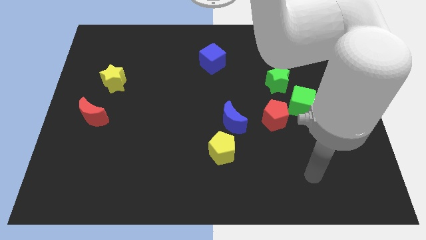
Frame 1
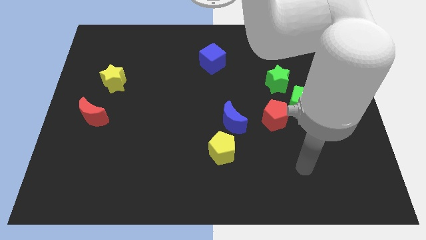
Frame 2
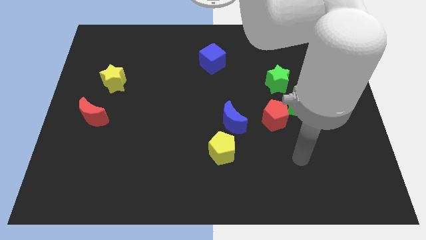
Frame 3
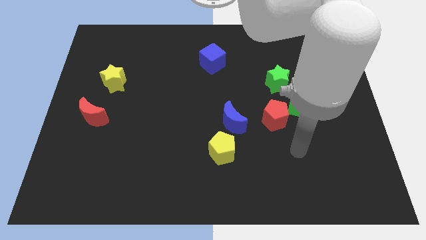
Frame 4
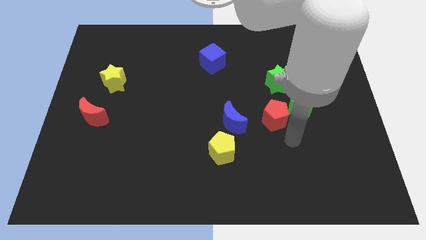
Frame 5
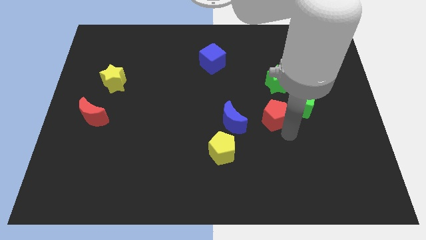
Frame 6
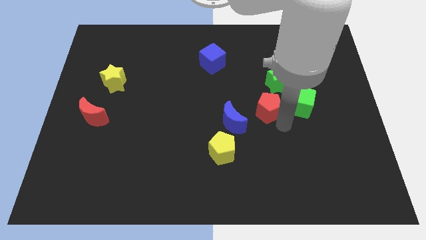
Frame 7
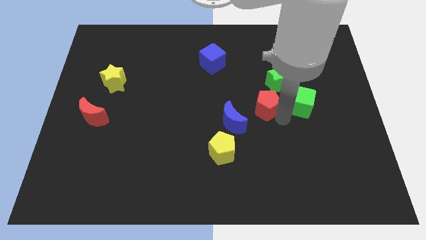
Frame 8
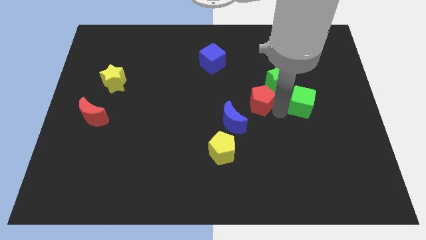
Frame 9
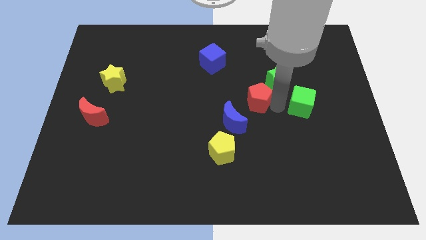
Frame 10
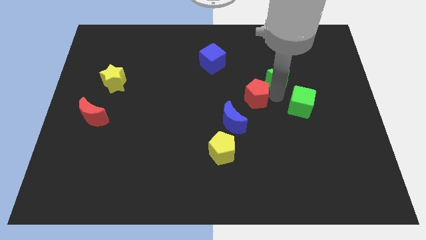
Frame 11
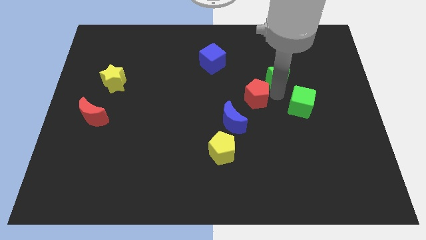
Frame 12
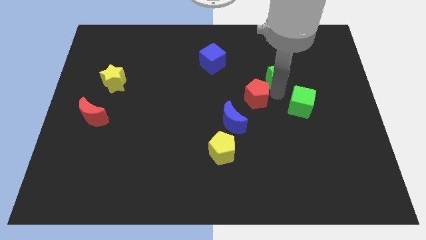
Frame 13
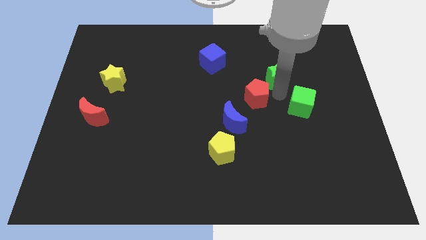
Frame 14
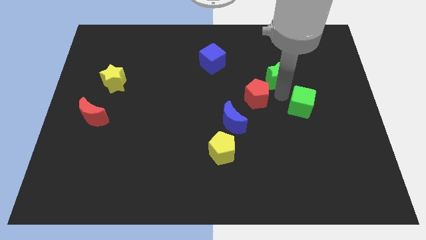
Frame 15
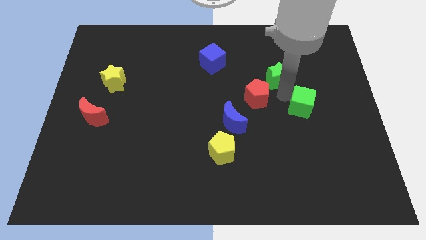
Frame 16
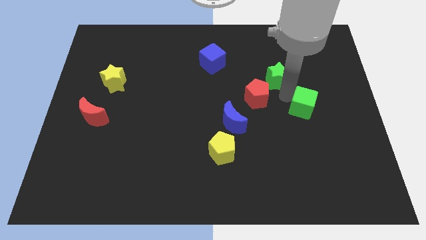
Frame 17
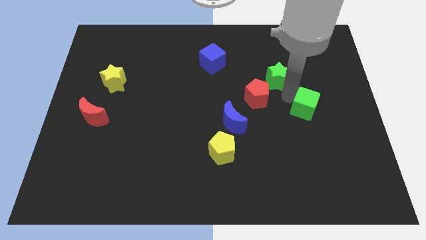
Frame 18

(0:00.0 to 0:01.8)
move the green cube away from the red pentagon and green star

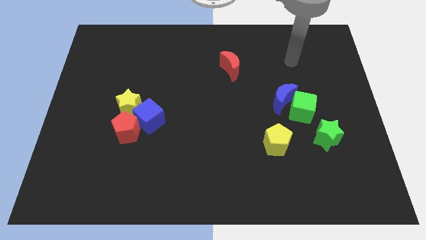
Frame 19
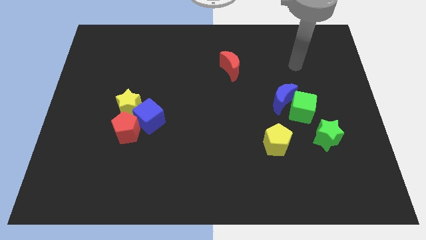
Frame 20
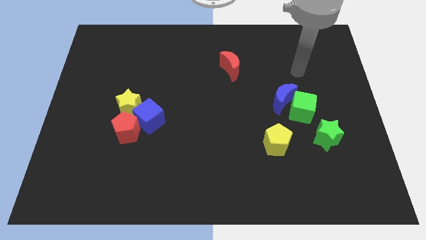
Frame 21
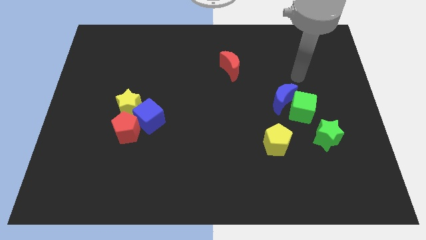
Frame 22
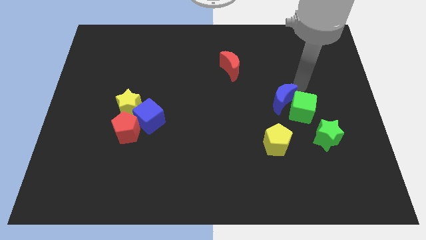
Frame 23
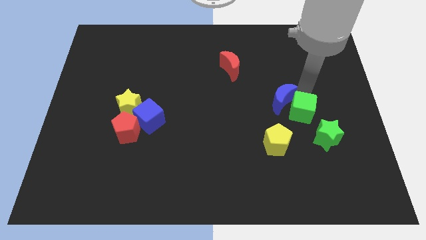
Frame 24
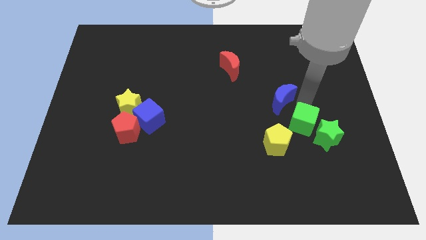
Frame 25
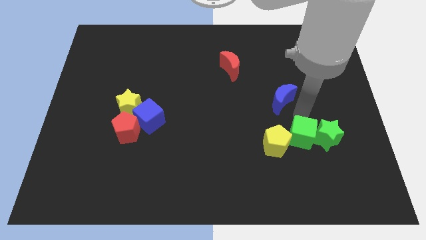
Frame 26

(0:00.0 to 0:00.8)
move the blue moon away from the green cube

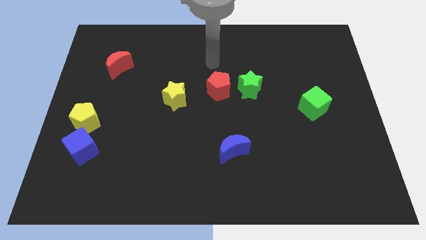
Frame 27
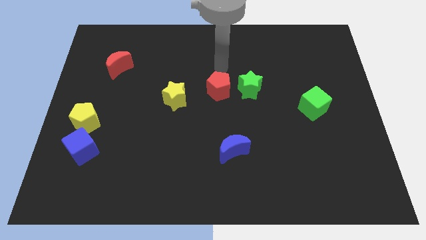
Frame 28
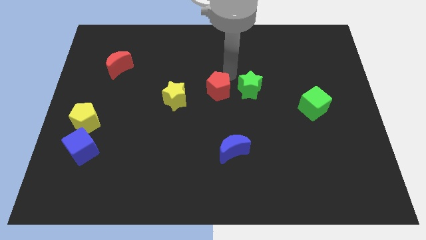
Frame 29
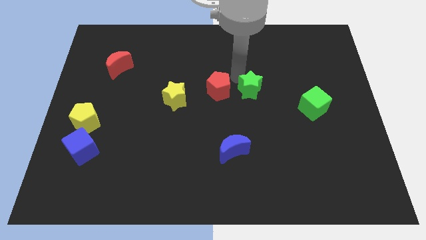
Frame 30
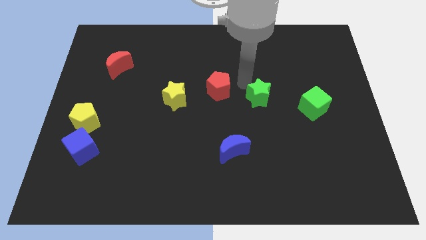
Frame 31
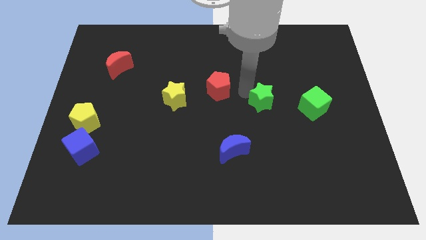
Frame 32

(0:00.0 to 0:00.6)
move the red pentagon away from the green star

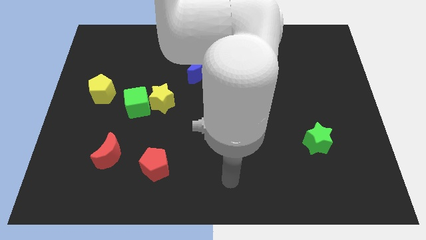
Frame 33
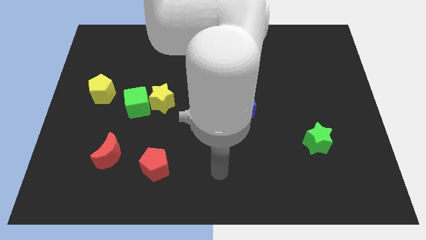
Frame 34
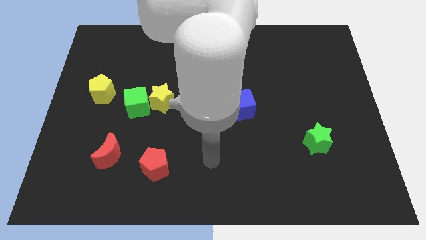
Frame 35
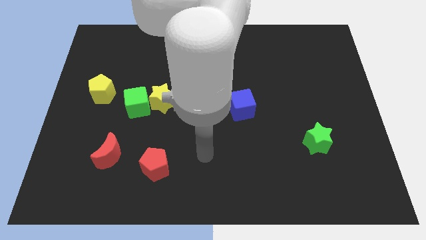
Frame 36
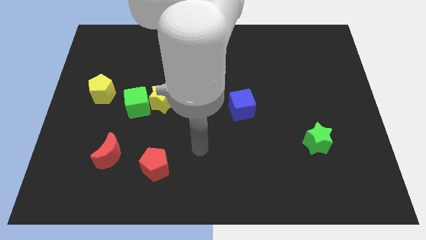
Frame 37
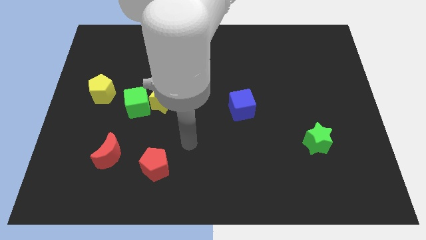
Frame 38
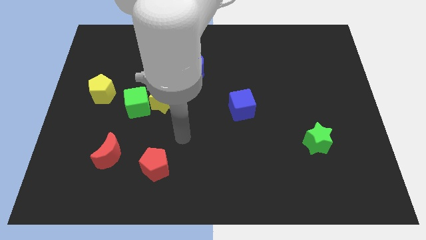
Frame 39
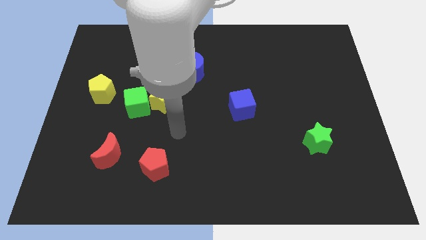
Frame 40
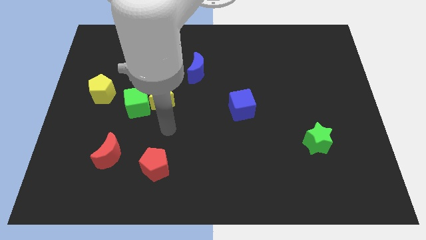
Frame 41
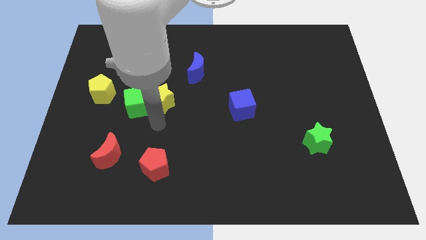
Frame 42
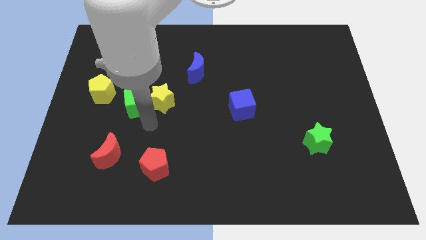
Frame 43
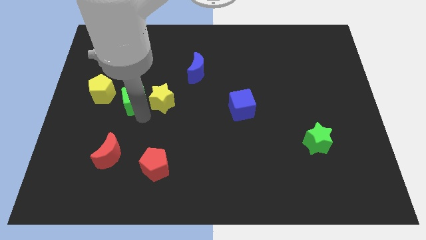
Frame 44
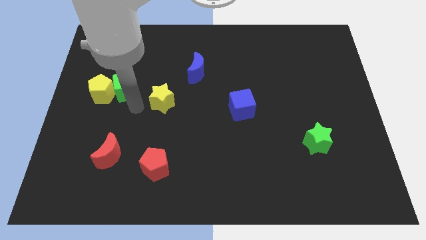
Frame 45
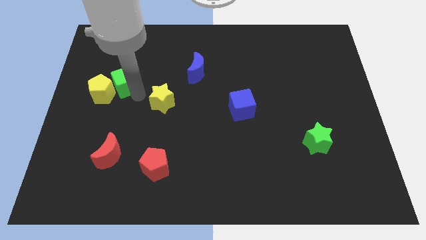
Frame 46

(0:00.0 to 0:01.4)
pull the yellow star apart from the green cube

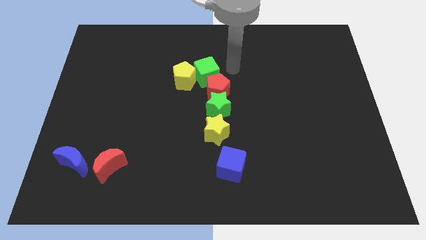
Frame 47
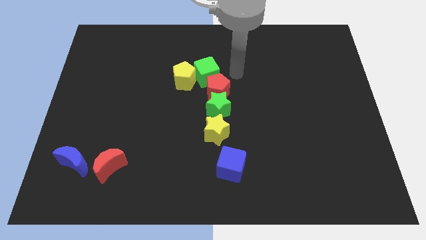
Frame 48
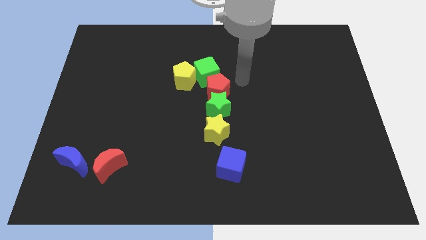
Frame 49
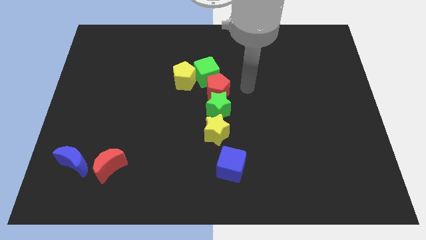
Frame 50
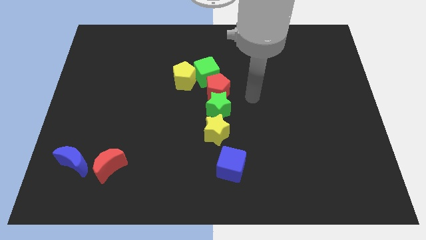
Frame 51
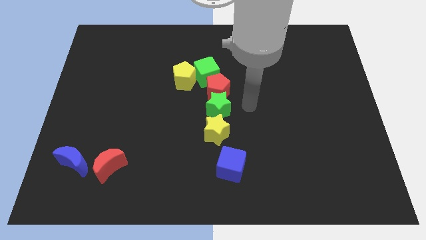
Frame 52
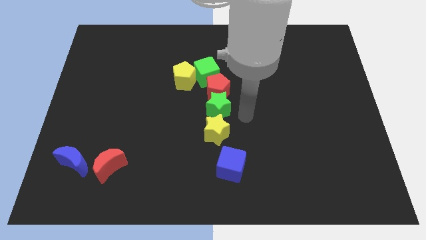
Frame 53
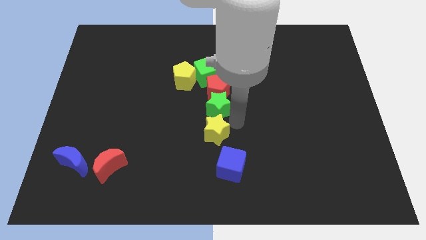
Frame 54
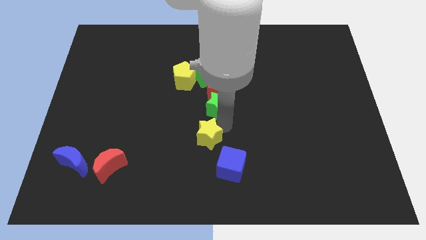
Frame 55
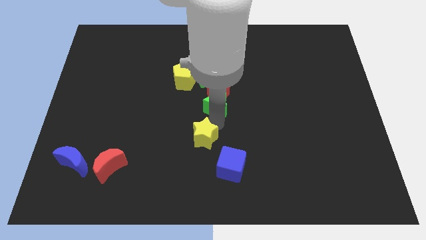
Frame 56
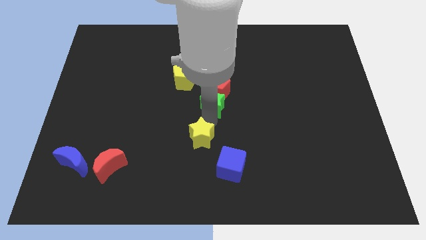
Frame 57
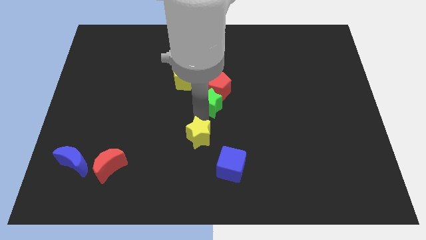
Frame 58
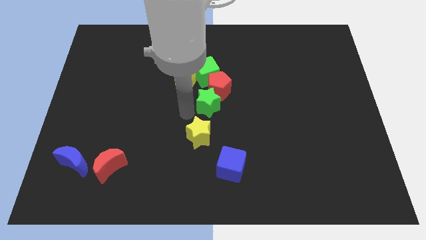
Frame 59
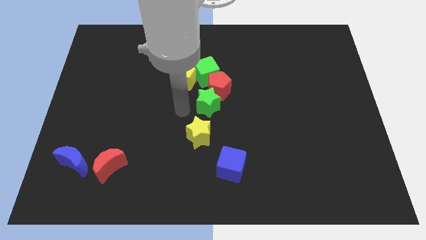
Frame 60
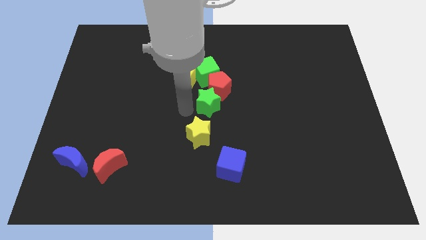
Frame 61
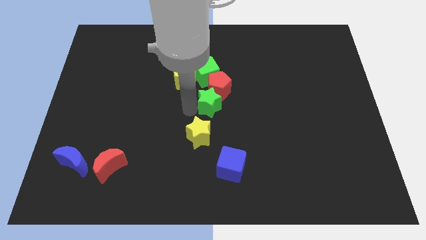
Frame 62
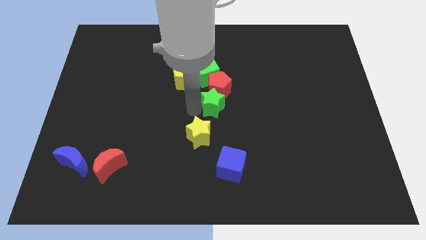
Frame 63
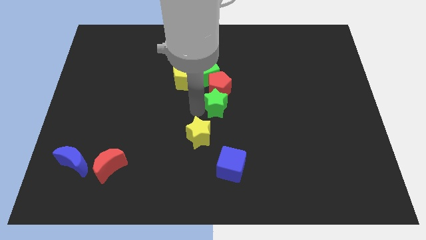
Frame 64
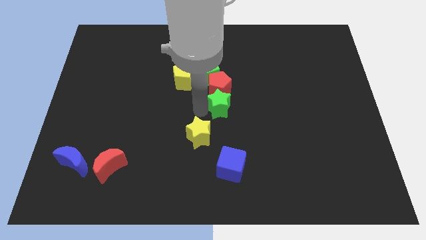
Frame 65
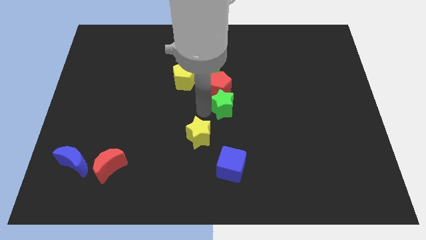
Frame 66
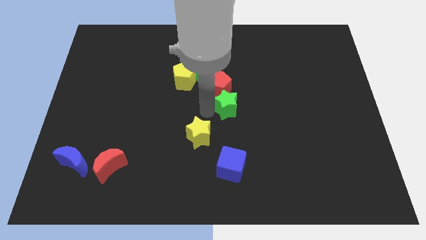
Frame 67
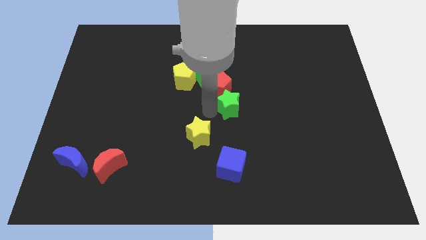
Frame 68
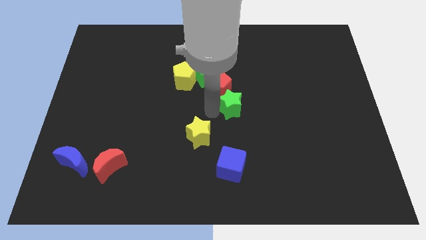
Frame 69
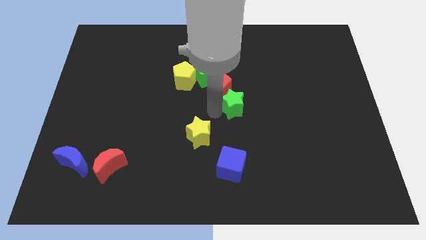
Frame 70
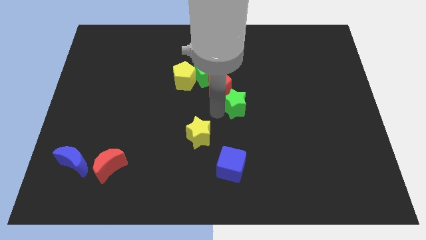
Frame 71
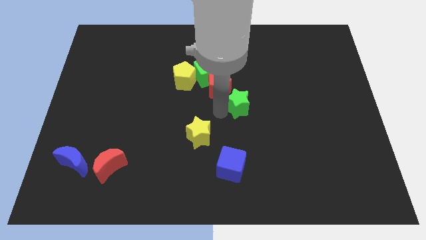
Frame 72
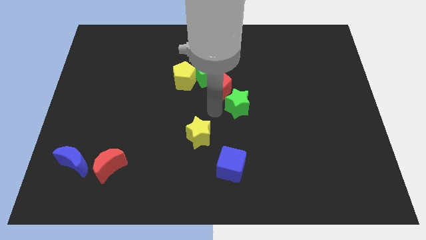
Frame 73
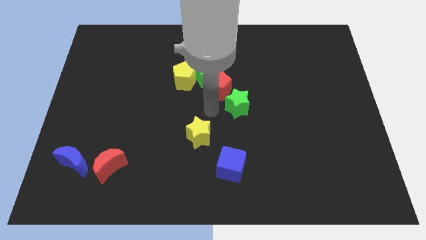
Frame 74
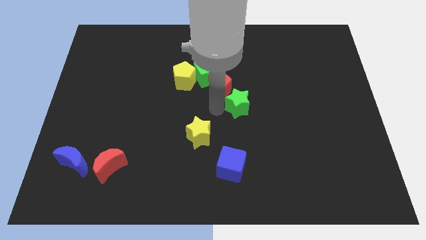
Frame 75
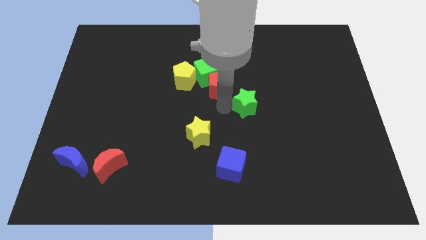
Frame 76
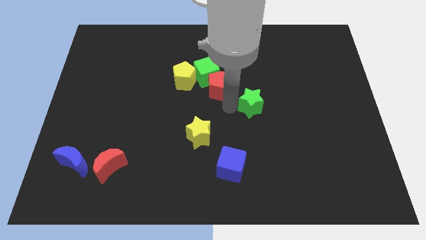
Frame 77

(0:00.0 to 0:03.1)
move the green star away from the red pentagon and yellow star

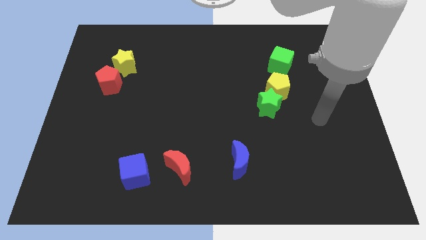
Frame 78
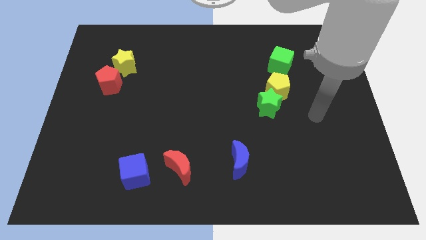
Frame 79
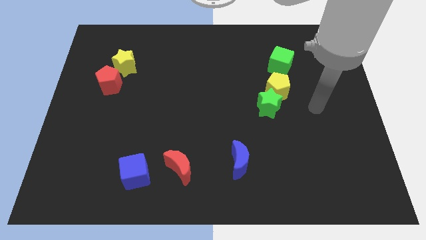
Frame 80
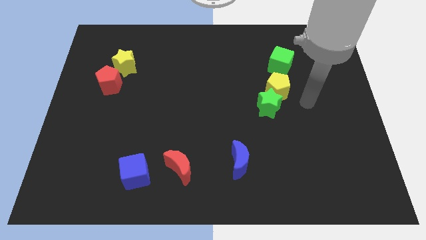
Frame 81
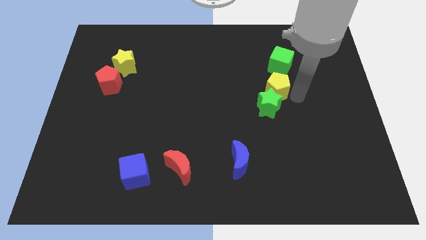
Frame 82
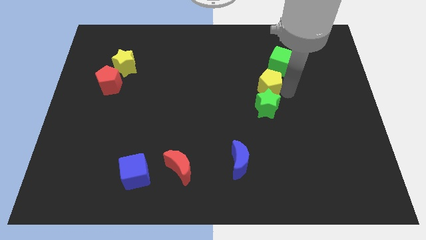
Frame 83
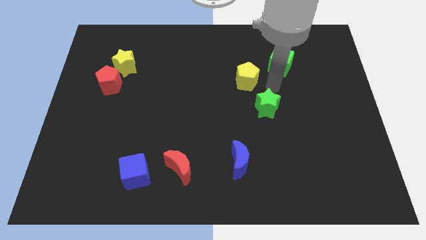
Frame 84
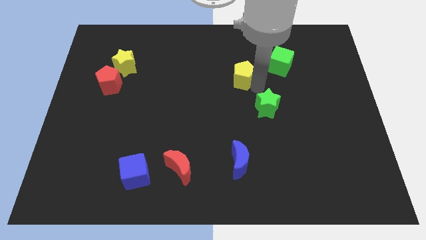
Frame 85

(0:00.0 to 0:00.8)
pull the green star apart from the yellow pentagon

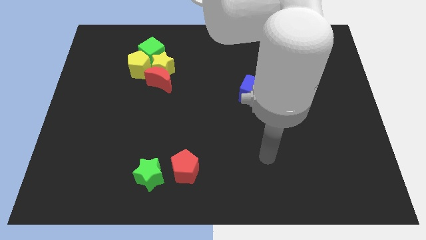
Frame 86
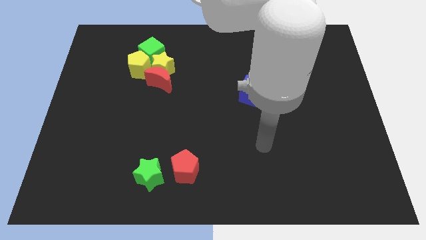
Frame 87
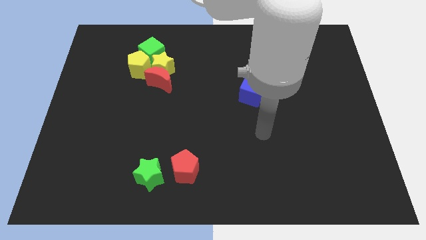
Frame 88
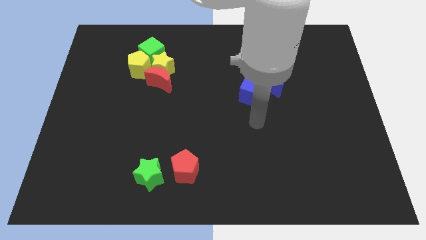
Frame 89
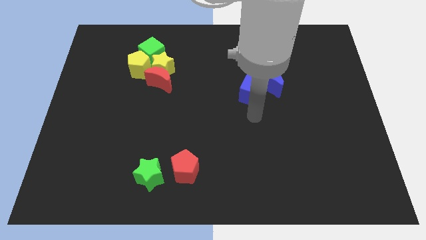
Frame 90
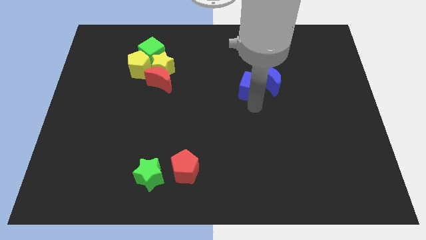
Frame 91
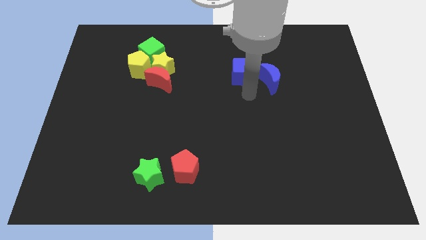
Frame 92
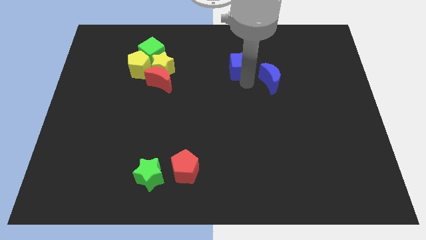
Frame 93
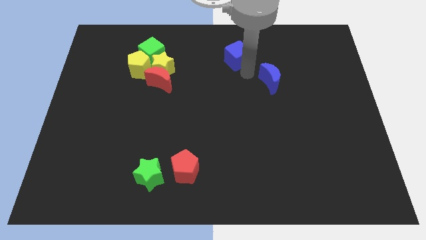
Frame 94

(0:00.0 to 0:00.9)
move the blue moon away from the blue cube
